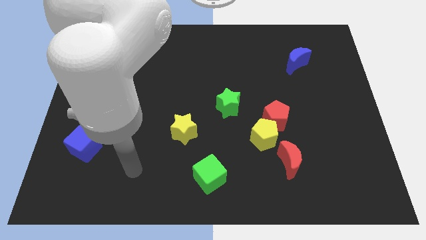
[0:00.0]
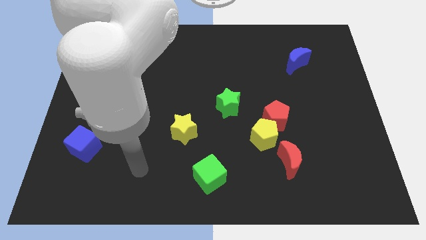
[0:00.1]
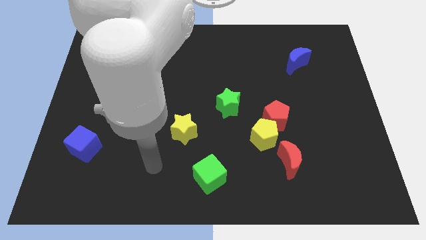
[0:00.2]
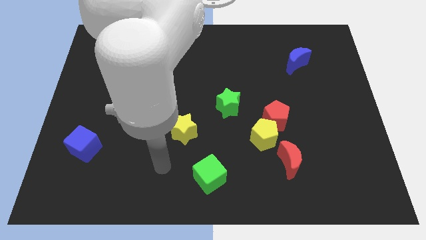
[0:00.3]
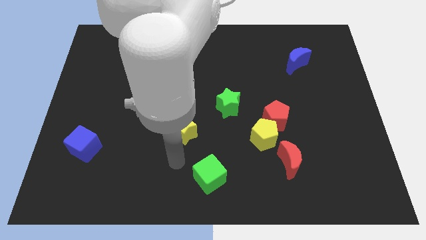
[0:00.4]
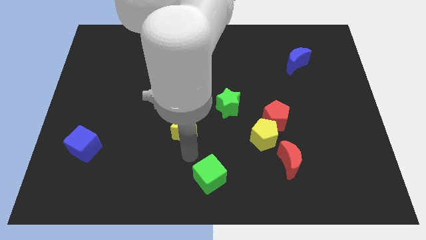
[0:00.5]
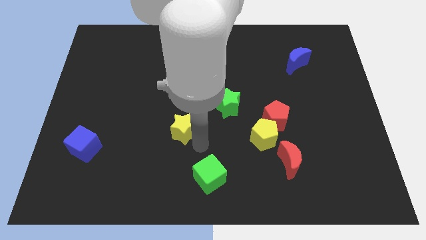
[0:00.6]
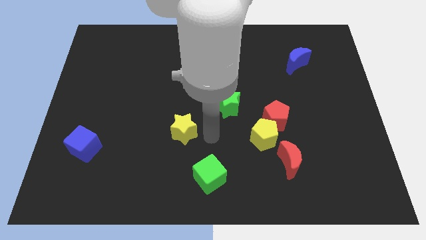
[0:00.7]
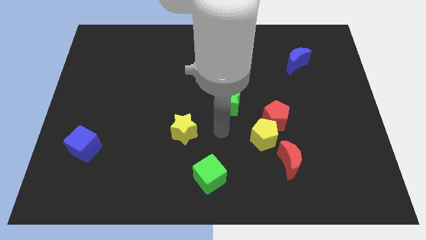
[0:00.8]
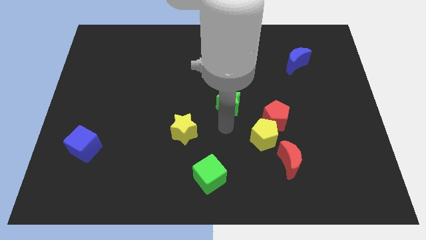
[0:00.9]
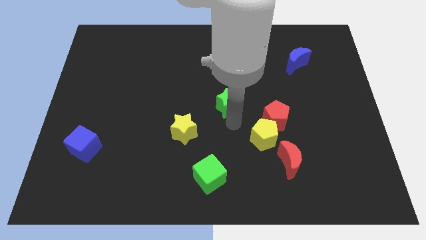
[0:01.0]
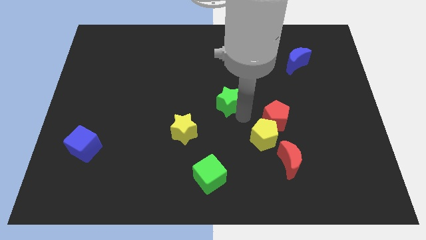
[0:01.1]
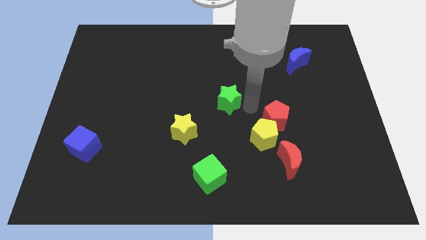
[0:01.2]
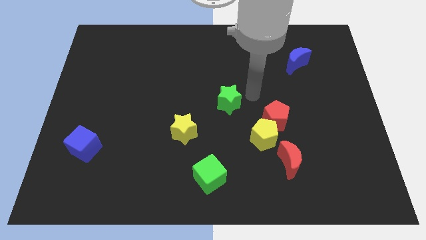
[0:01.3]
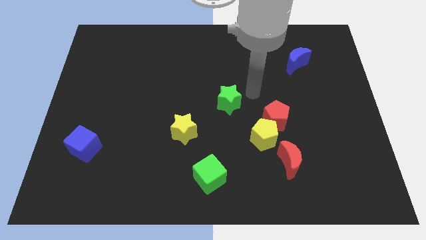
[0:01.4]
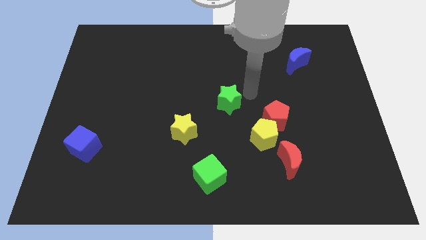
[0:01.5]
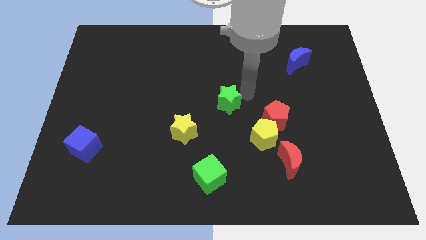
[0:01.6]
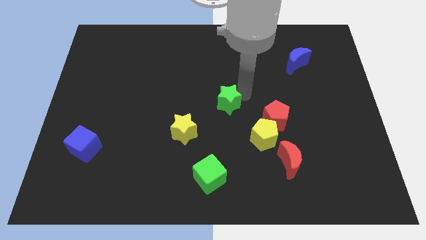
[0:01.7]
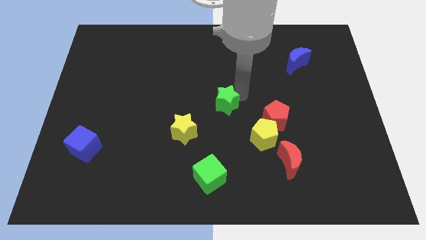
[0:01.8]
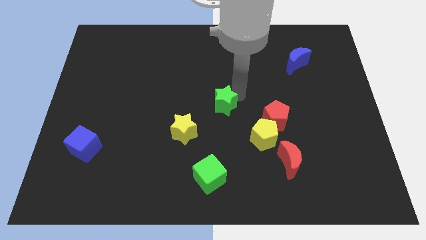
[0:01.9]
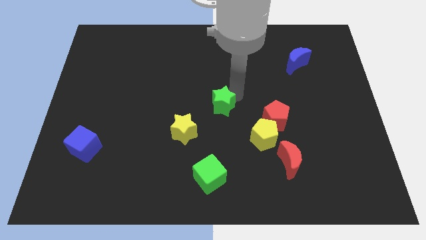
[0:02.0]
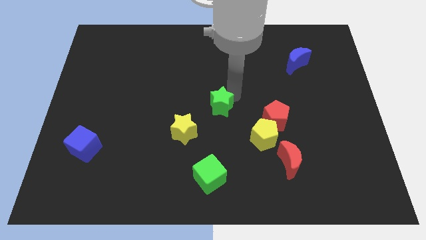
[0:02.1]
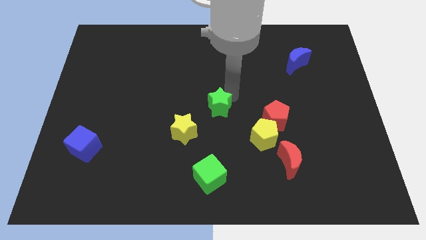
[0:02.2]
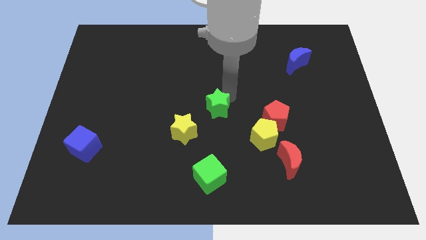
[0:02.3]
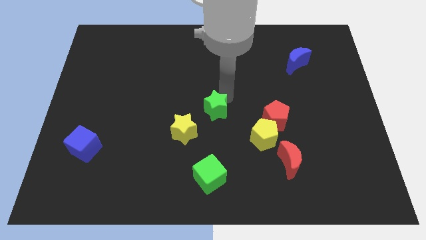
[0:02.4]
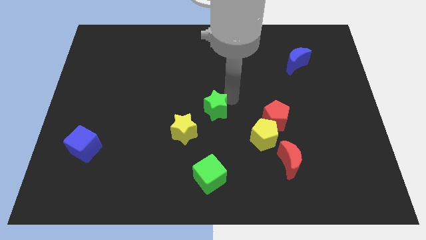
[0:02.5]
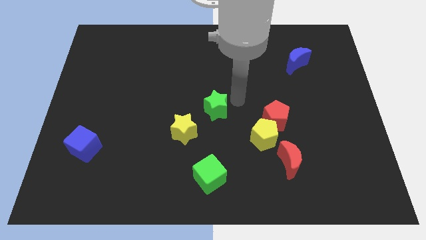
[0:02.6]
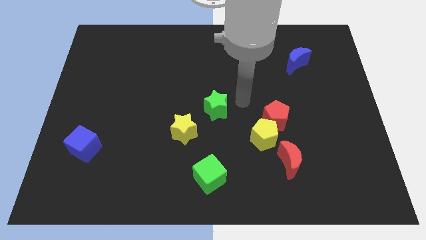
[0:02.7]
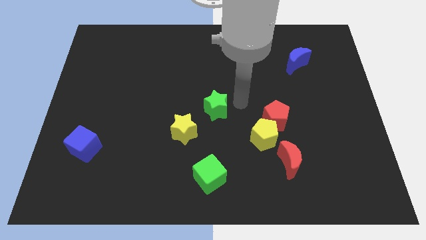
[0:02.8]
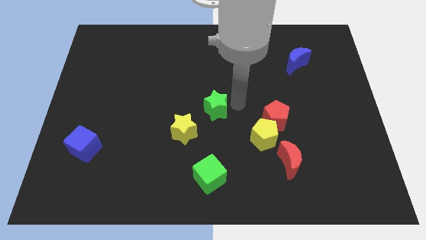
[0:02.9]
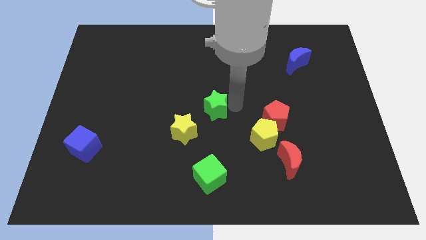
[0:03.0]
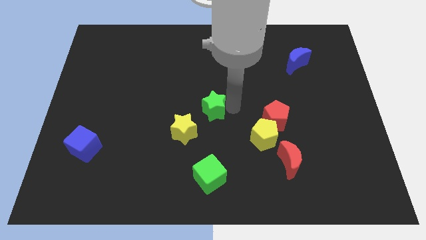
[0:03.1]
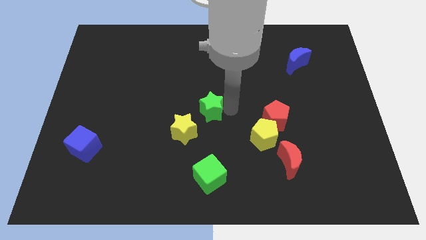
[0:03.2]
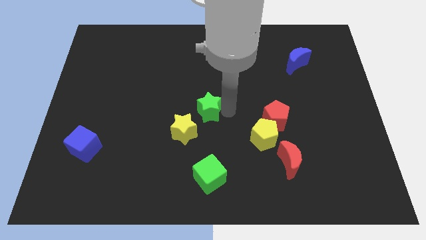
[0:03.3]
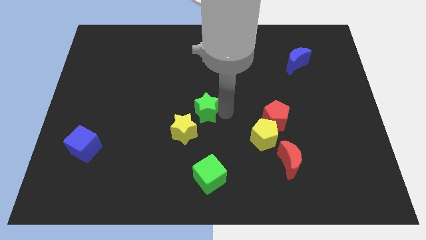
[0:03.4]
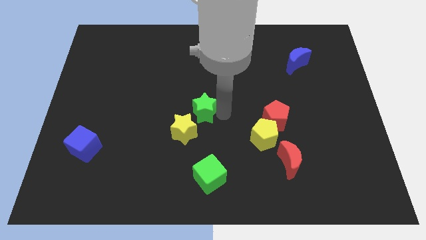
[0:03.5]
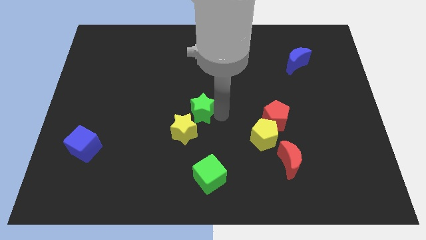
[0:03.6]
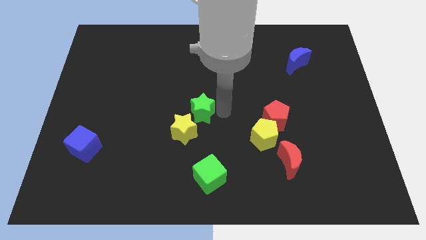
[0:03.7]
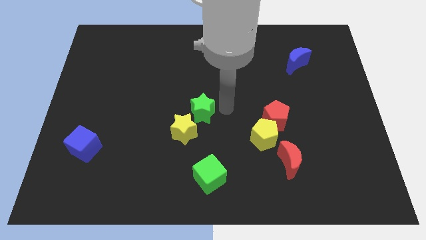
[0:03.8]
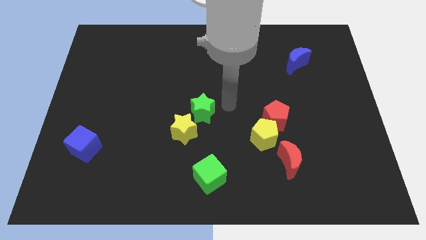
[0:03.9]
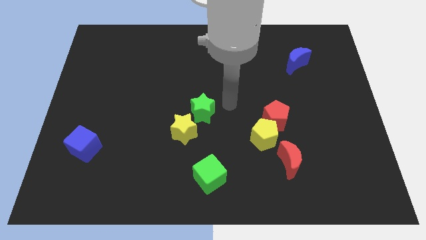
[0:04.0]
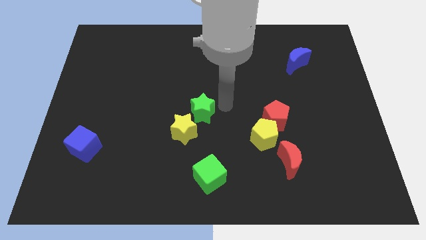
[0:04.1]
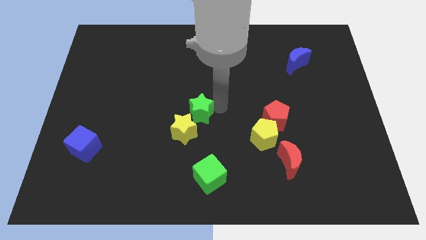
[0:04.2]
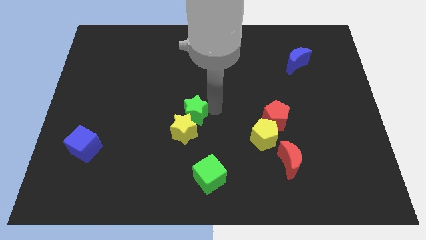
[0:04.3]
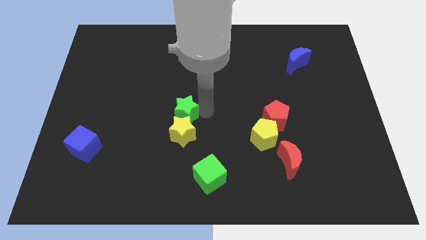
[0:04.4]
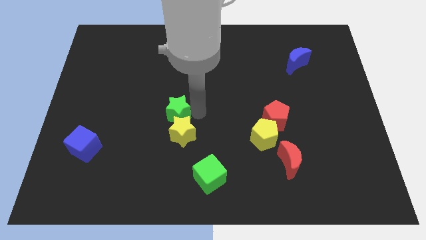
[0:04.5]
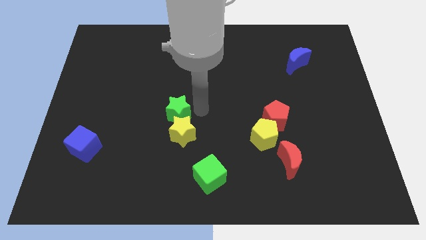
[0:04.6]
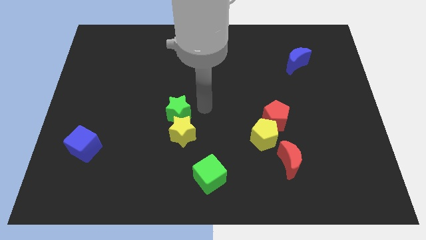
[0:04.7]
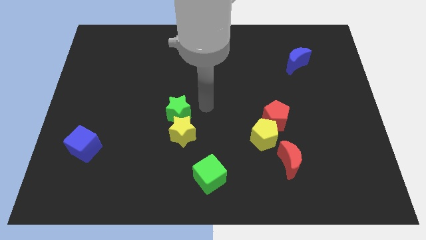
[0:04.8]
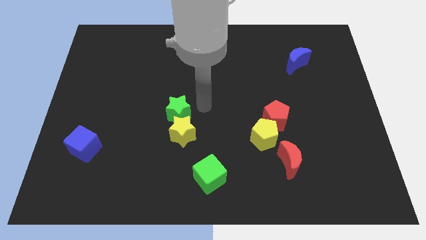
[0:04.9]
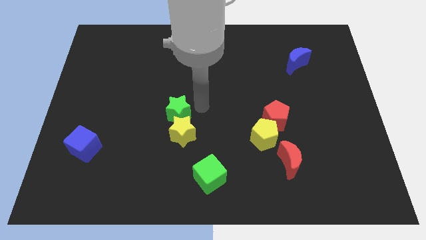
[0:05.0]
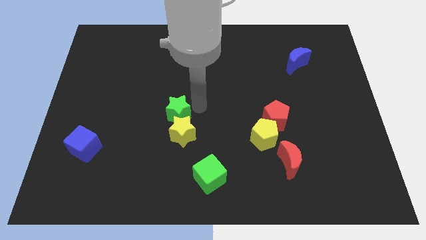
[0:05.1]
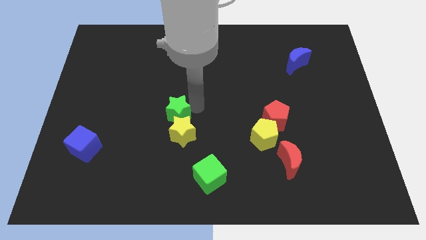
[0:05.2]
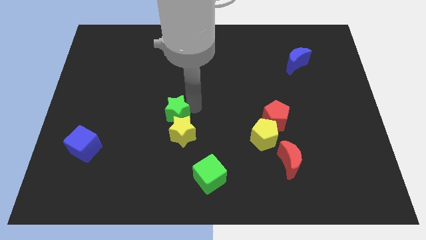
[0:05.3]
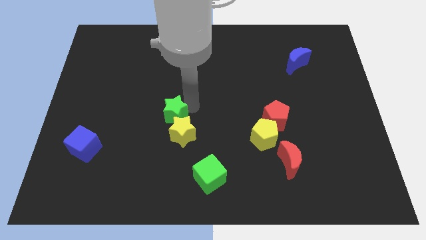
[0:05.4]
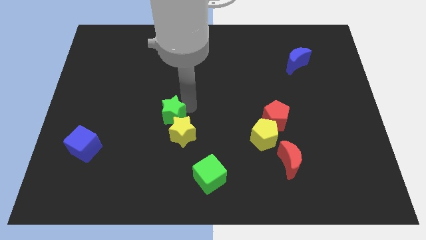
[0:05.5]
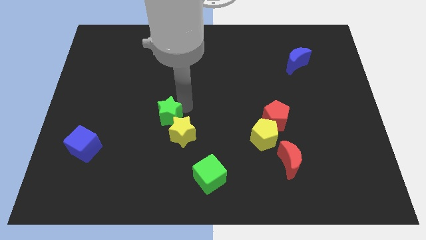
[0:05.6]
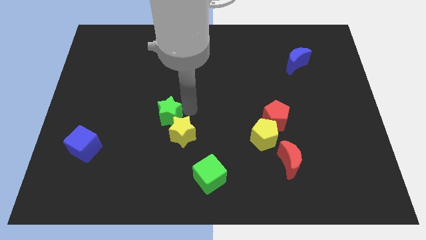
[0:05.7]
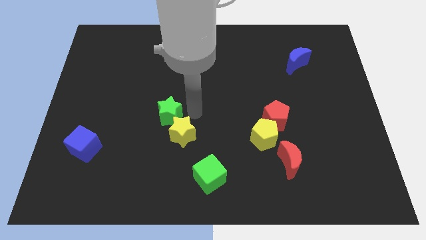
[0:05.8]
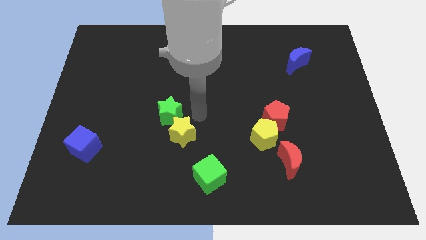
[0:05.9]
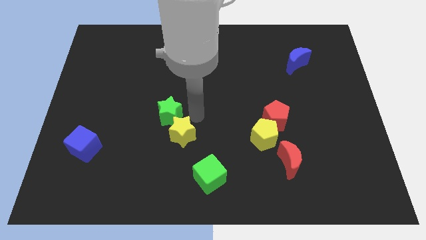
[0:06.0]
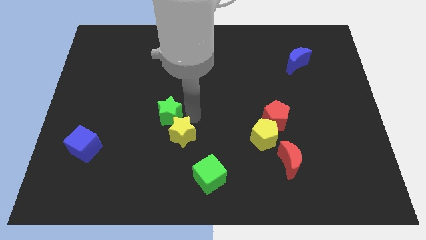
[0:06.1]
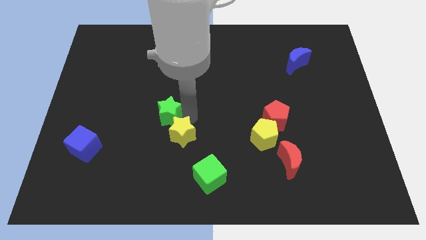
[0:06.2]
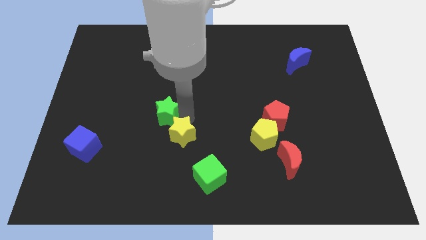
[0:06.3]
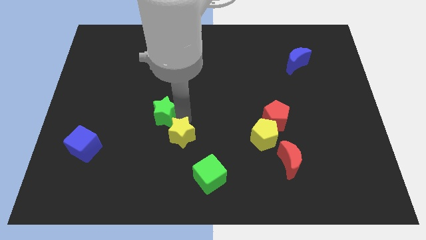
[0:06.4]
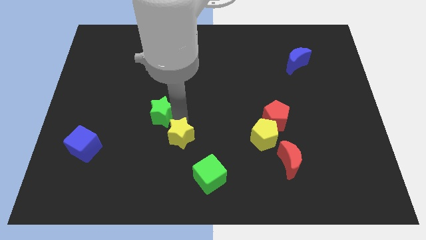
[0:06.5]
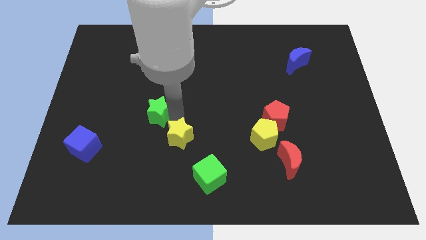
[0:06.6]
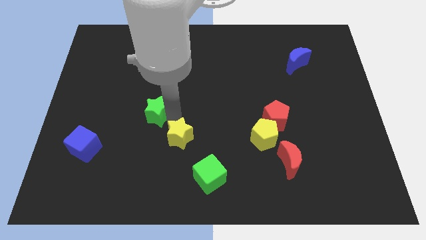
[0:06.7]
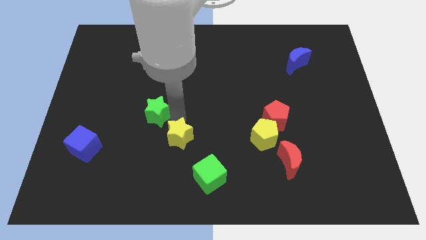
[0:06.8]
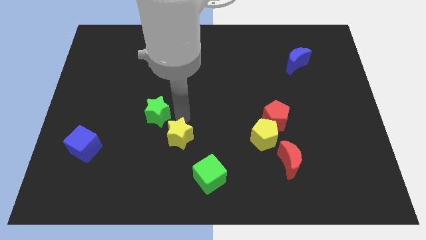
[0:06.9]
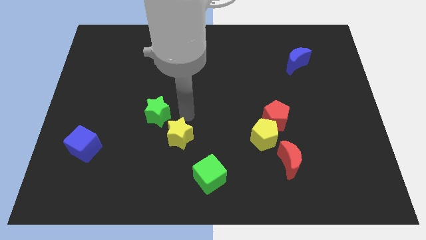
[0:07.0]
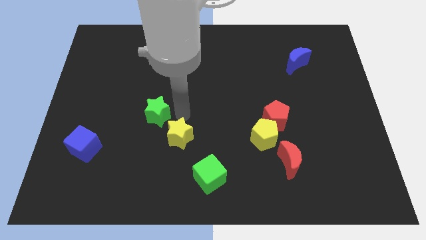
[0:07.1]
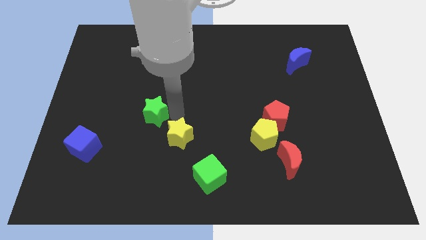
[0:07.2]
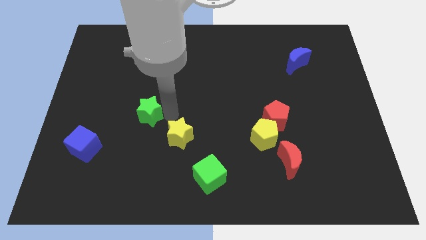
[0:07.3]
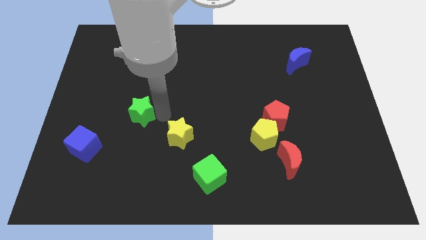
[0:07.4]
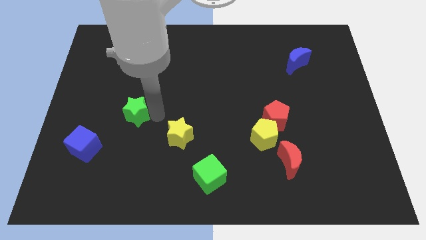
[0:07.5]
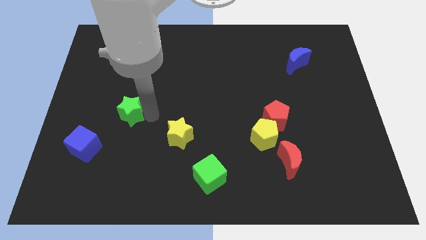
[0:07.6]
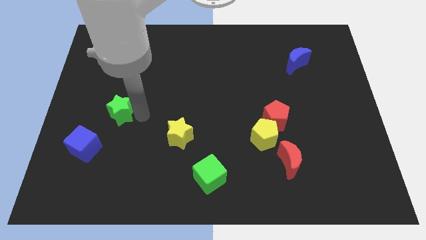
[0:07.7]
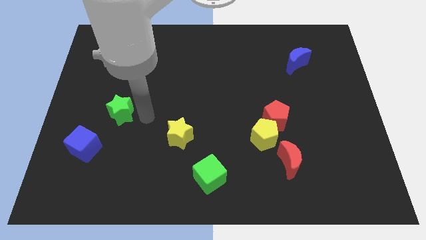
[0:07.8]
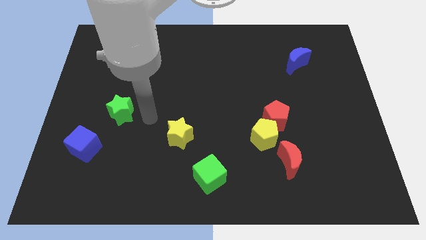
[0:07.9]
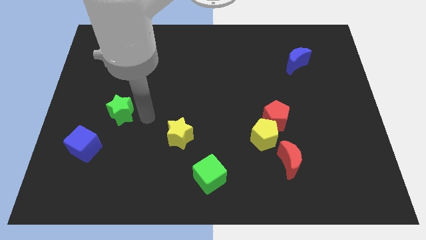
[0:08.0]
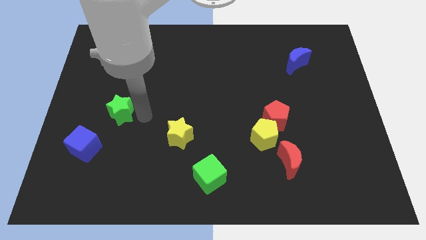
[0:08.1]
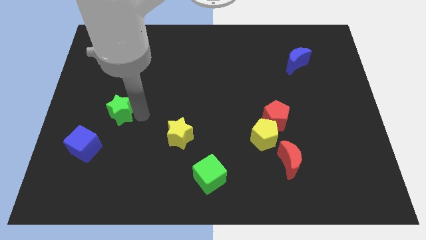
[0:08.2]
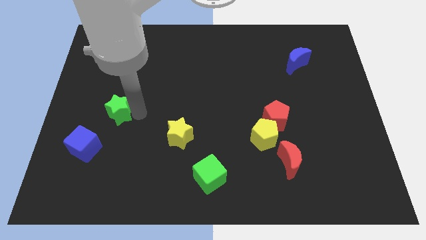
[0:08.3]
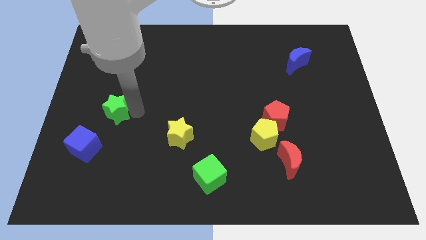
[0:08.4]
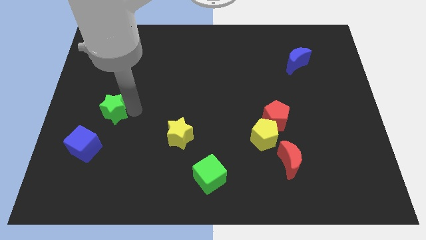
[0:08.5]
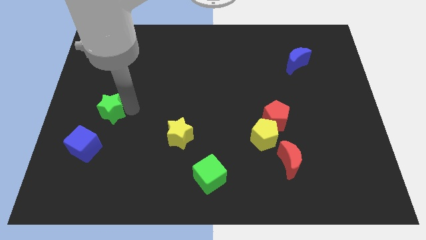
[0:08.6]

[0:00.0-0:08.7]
put the green star above the blue cube
